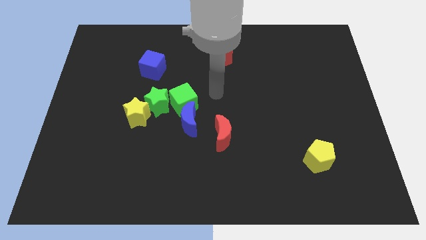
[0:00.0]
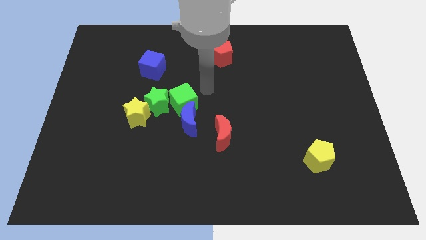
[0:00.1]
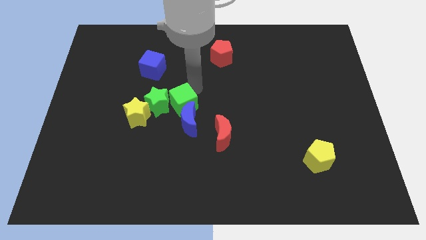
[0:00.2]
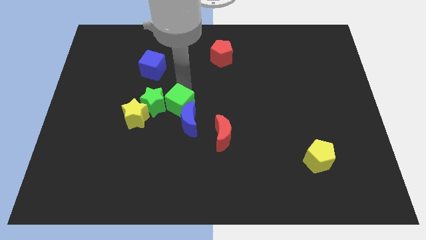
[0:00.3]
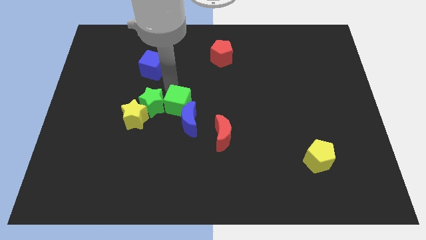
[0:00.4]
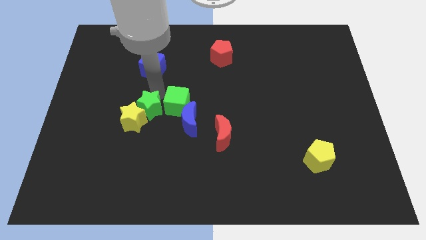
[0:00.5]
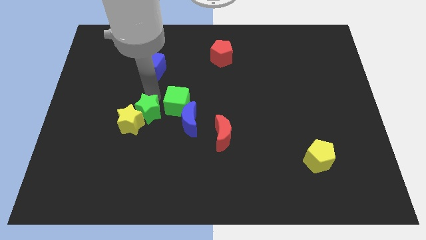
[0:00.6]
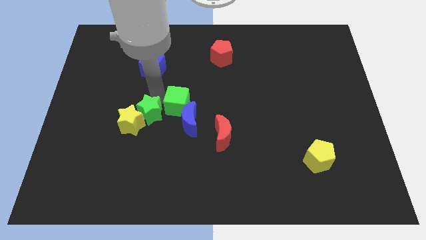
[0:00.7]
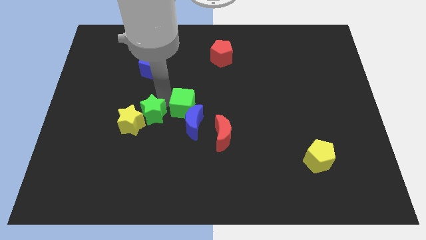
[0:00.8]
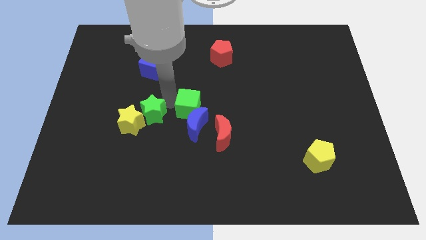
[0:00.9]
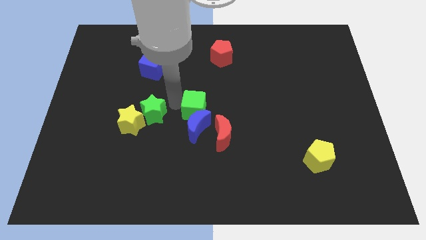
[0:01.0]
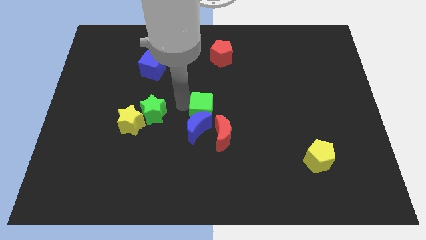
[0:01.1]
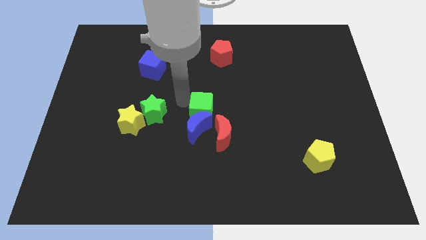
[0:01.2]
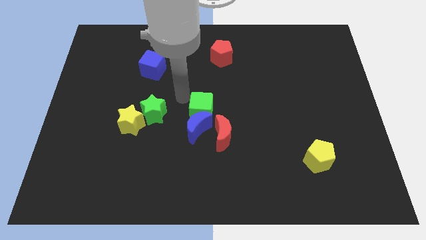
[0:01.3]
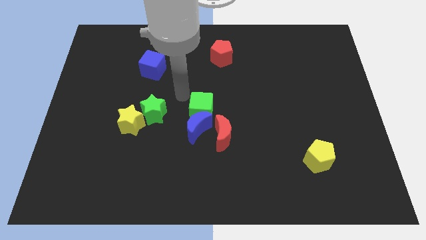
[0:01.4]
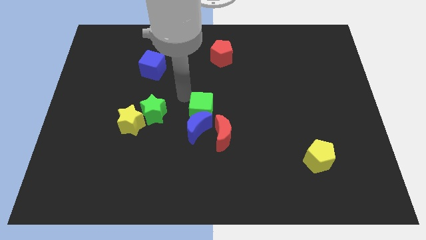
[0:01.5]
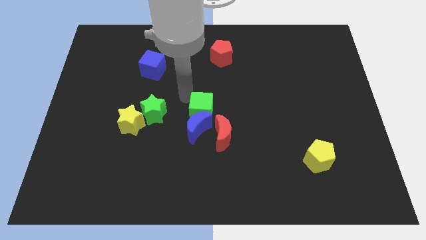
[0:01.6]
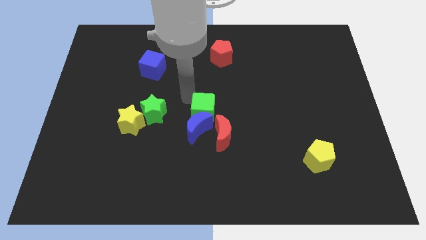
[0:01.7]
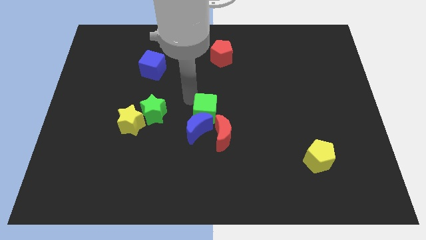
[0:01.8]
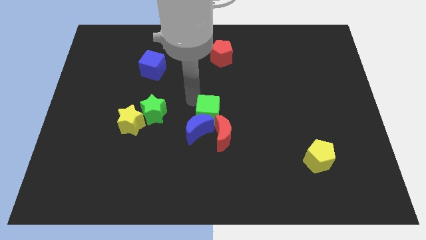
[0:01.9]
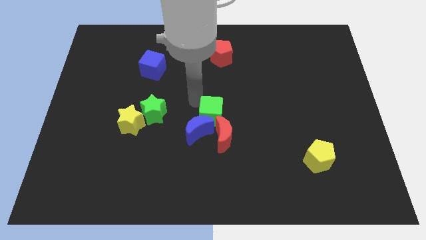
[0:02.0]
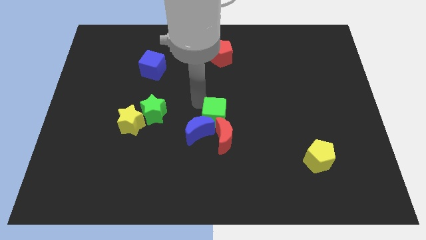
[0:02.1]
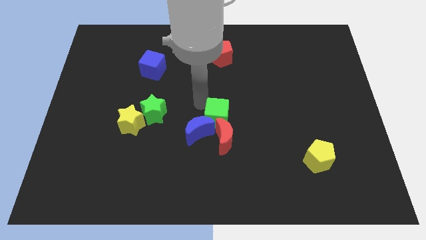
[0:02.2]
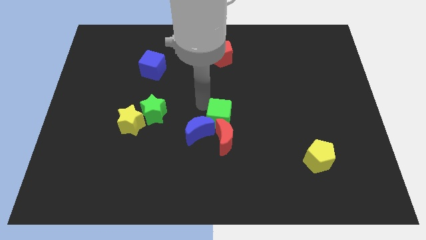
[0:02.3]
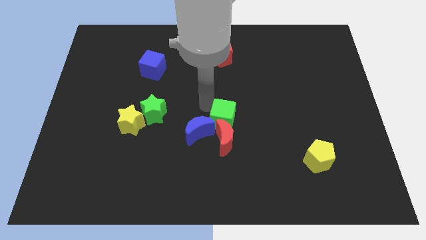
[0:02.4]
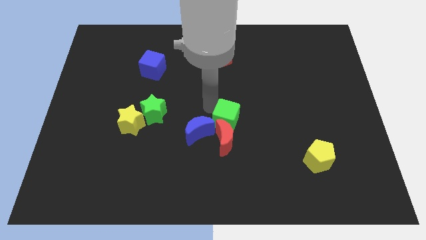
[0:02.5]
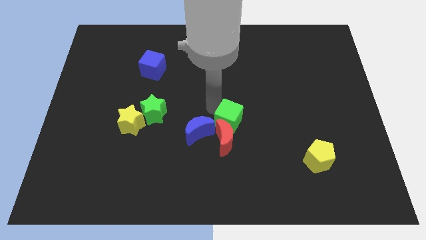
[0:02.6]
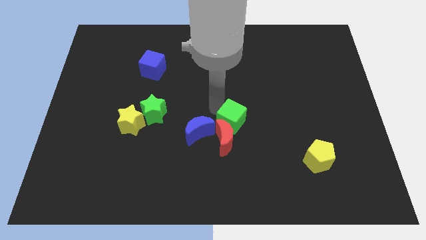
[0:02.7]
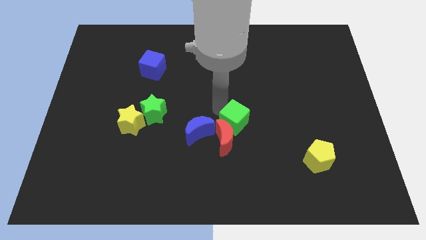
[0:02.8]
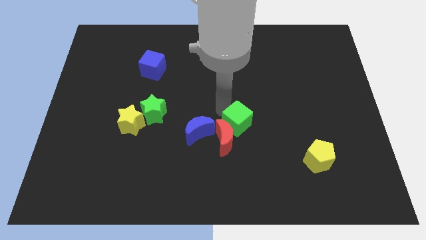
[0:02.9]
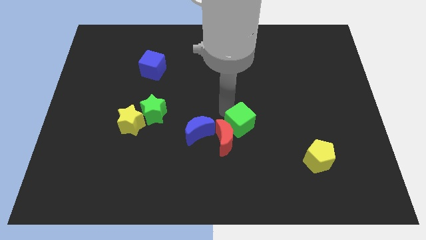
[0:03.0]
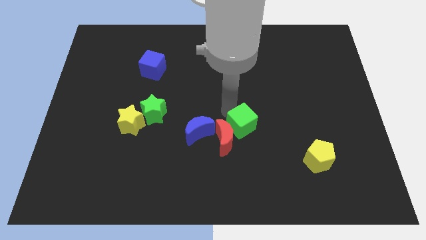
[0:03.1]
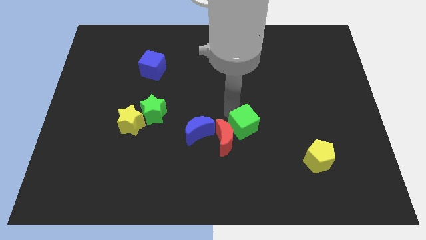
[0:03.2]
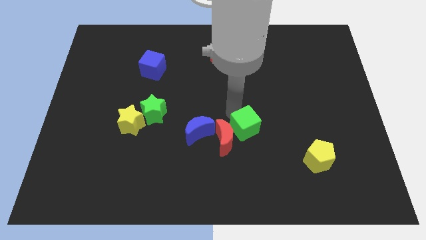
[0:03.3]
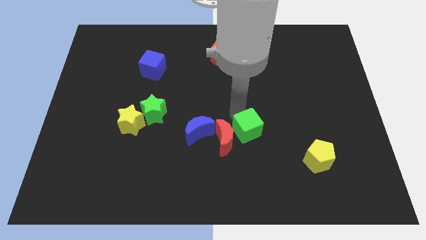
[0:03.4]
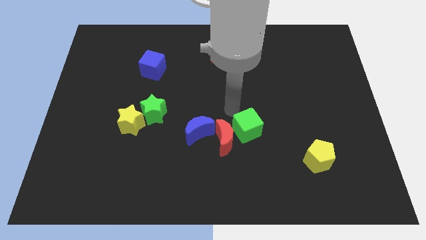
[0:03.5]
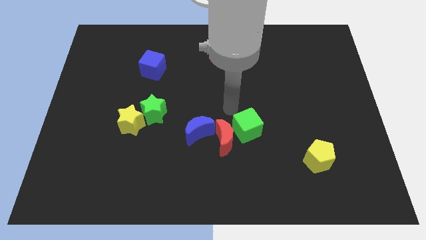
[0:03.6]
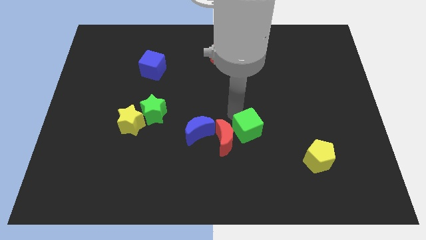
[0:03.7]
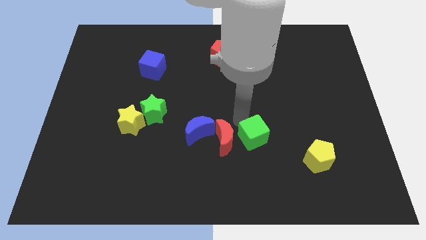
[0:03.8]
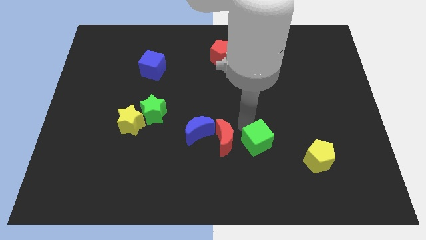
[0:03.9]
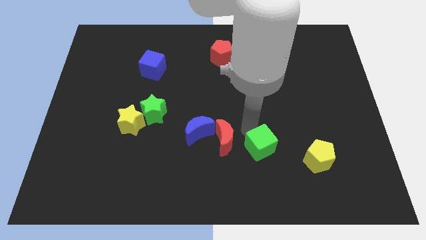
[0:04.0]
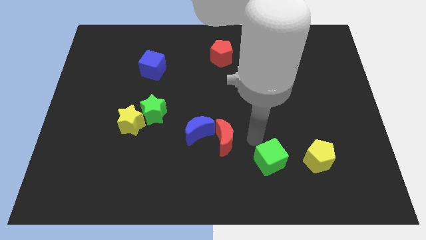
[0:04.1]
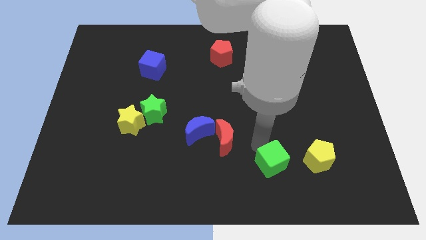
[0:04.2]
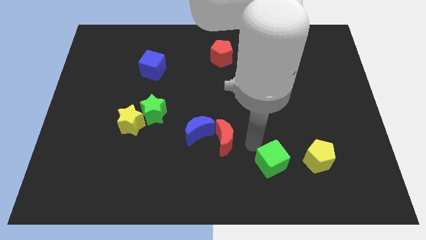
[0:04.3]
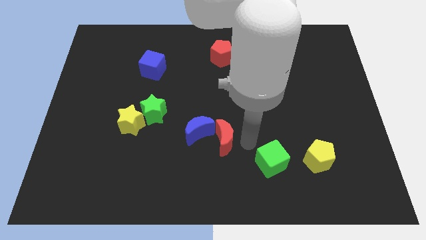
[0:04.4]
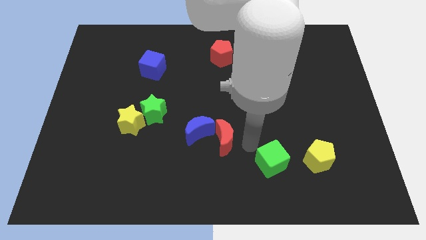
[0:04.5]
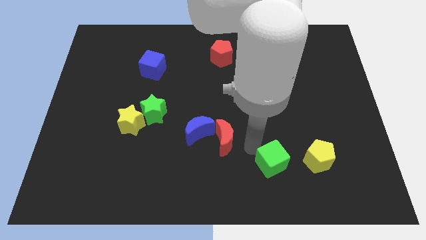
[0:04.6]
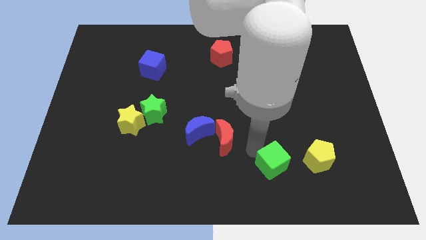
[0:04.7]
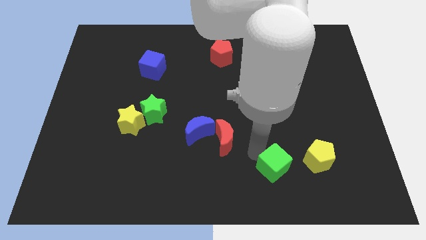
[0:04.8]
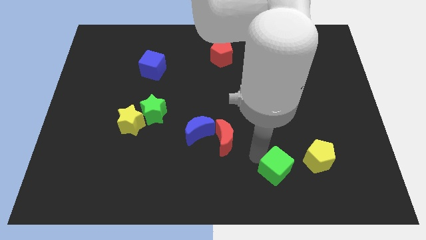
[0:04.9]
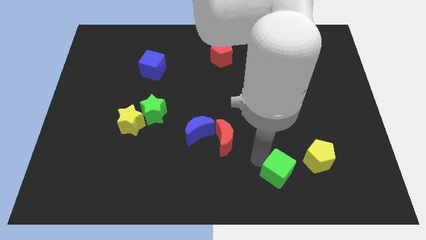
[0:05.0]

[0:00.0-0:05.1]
move the green cube to the bottom left side of the yellow pentagon

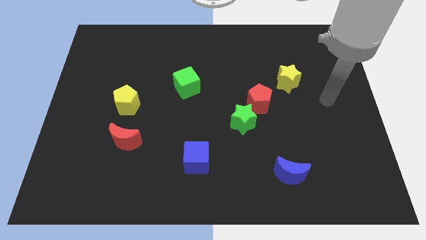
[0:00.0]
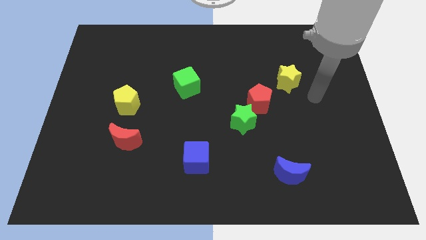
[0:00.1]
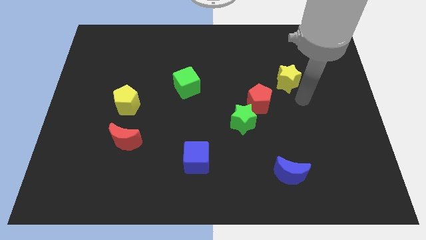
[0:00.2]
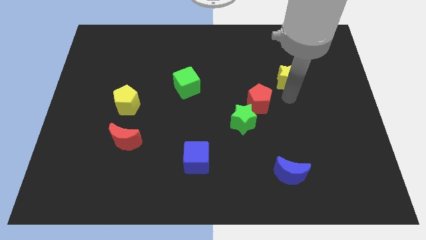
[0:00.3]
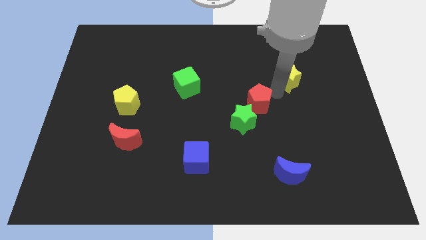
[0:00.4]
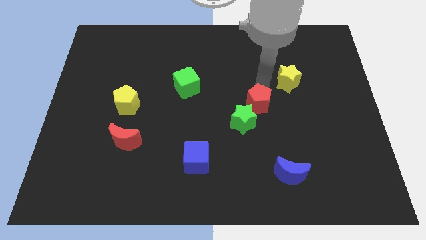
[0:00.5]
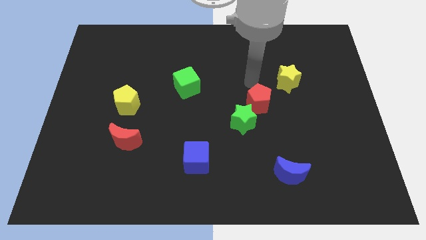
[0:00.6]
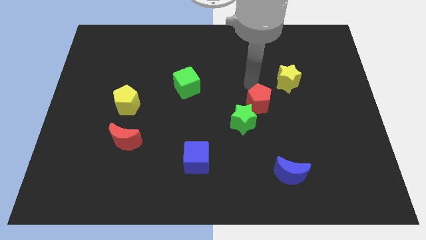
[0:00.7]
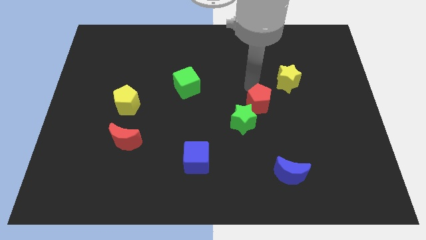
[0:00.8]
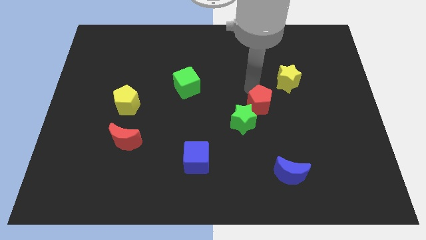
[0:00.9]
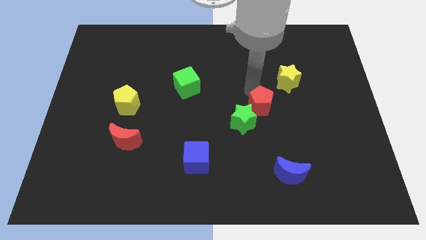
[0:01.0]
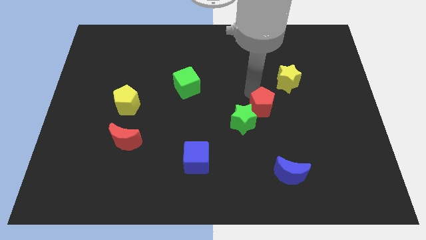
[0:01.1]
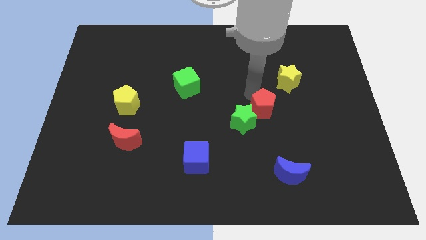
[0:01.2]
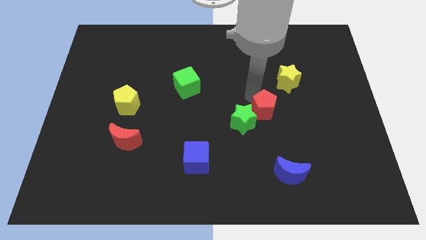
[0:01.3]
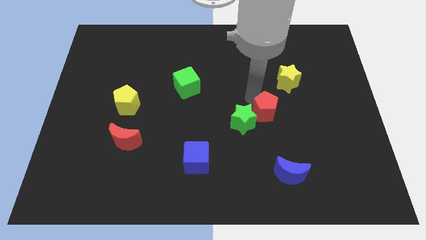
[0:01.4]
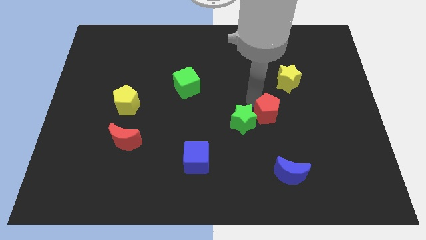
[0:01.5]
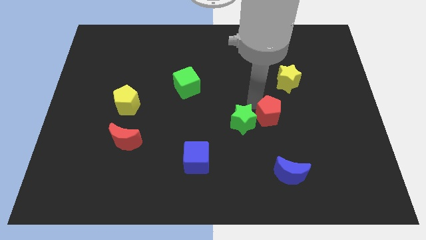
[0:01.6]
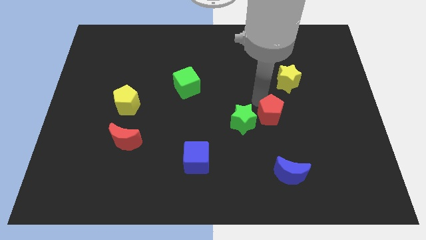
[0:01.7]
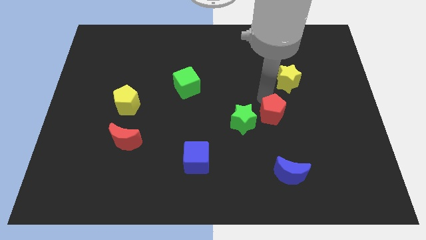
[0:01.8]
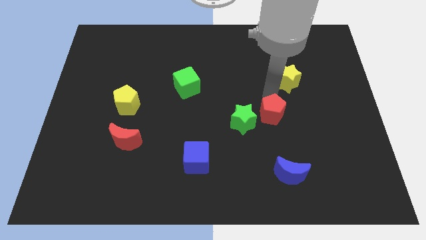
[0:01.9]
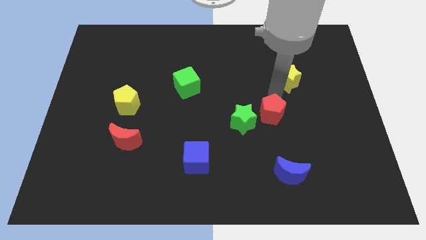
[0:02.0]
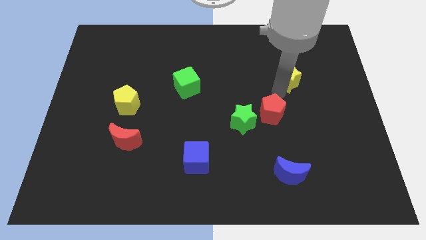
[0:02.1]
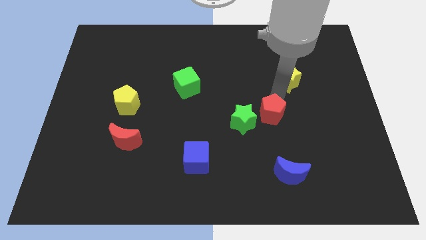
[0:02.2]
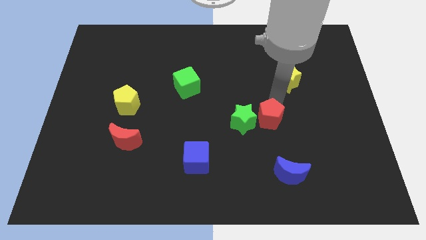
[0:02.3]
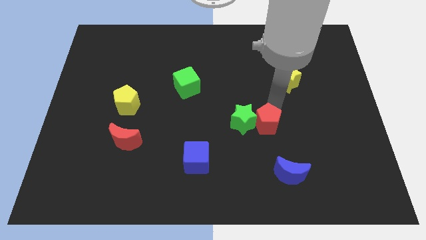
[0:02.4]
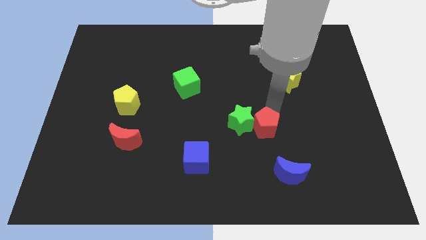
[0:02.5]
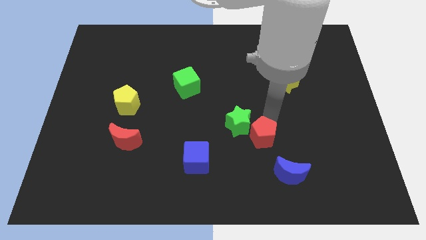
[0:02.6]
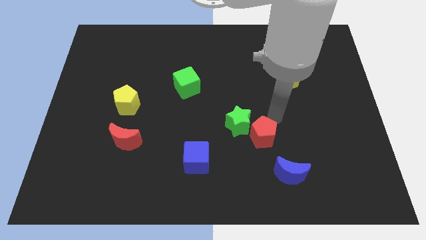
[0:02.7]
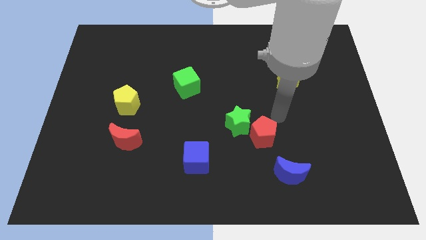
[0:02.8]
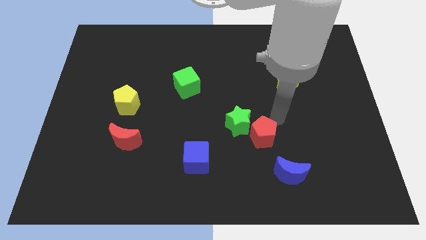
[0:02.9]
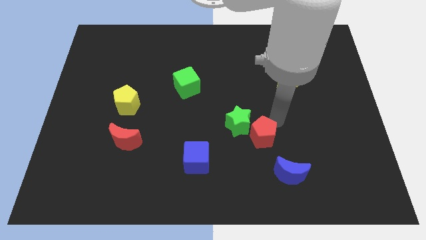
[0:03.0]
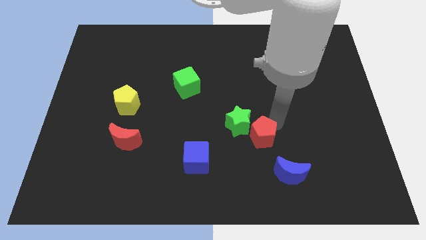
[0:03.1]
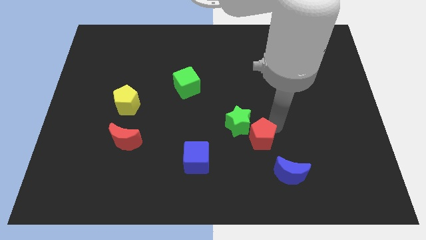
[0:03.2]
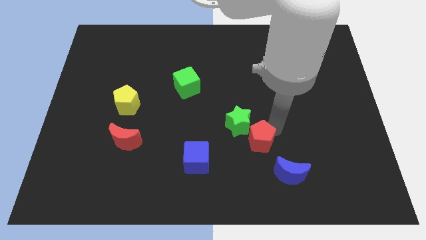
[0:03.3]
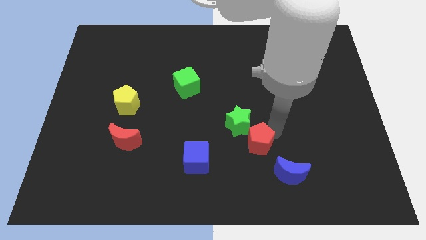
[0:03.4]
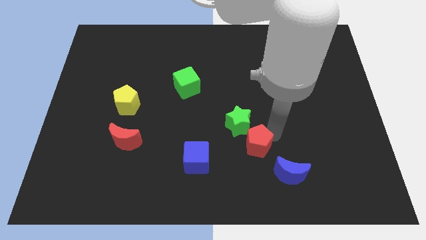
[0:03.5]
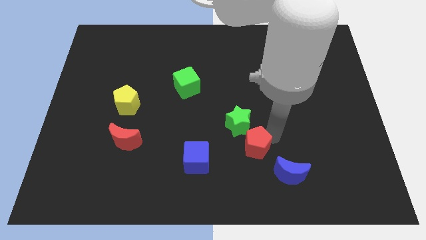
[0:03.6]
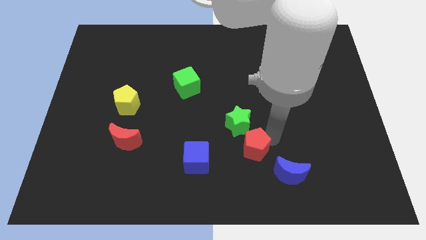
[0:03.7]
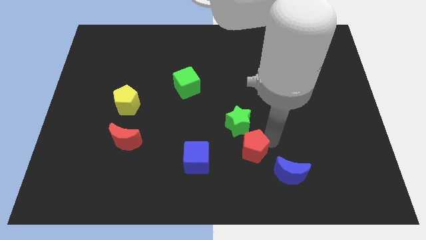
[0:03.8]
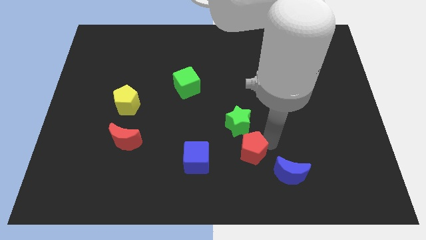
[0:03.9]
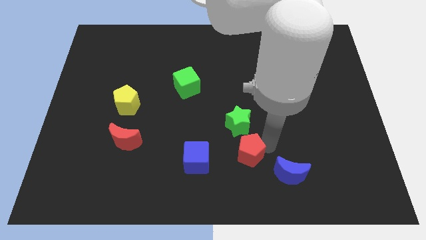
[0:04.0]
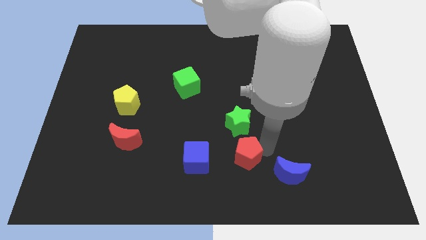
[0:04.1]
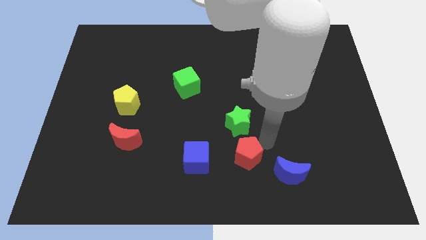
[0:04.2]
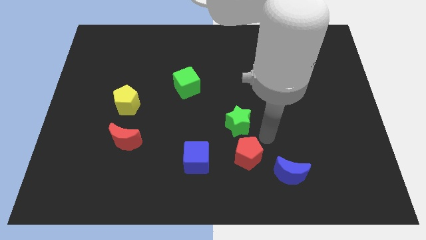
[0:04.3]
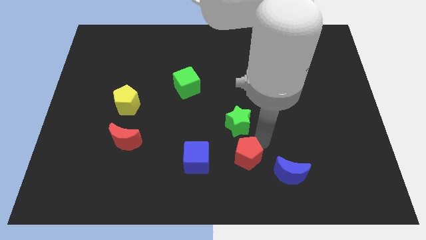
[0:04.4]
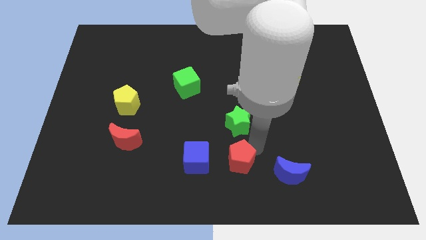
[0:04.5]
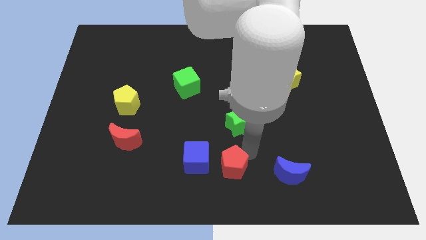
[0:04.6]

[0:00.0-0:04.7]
move the red pentagon diagonally down and to the right of the blue cube
